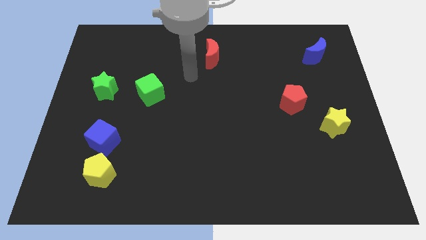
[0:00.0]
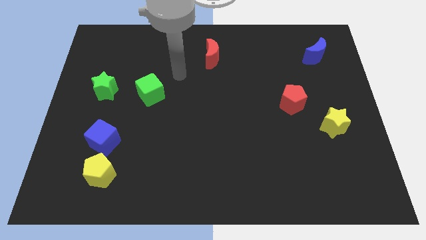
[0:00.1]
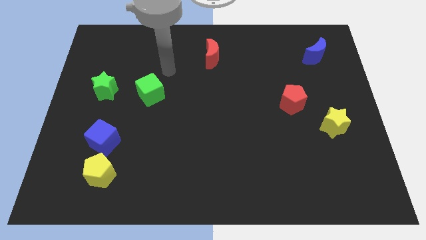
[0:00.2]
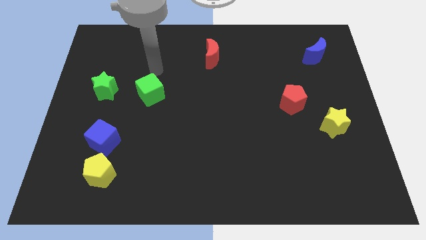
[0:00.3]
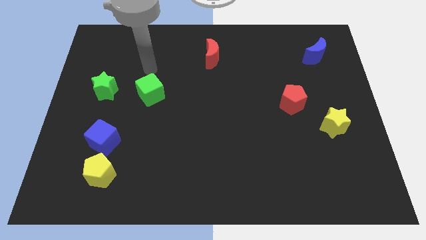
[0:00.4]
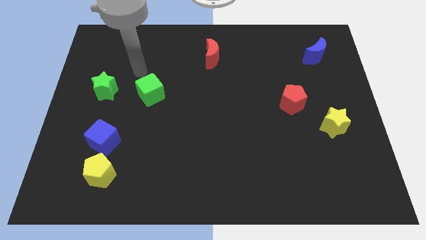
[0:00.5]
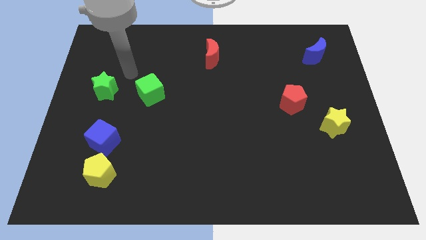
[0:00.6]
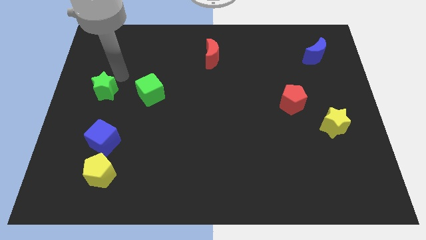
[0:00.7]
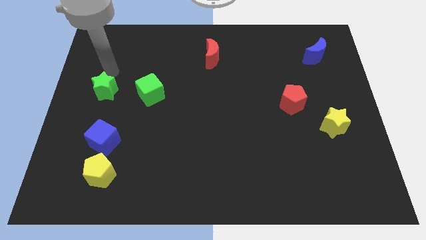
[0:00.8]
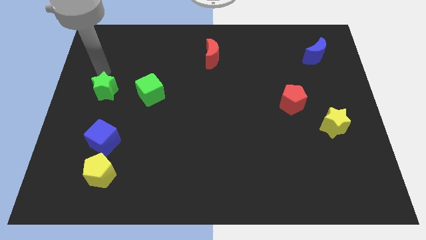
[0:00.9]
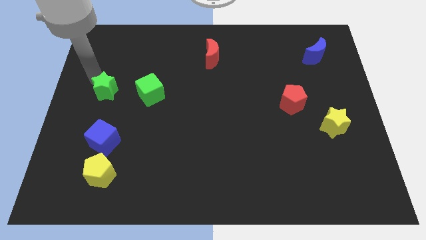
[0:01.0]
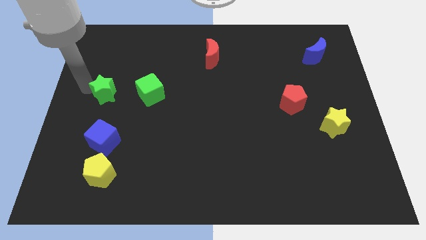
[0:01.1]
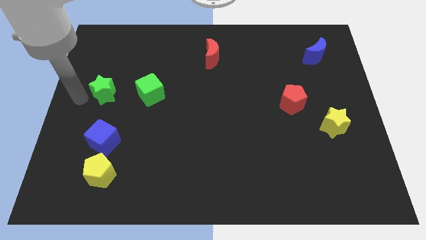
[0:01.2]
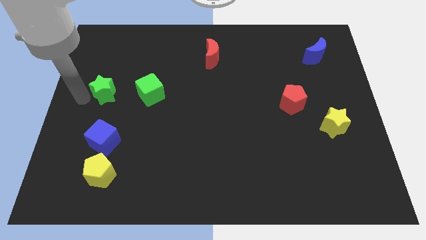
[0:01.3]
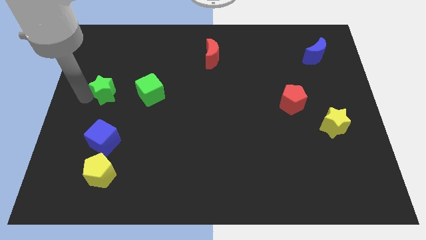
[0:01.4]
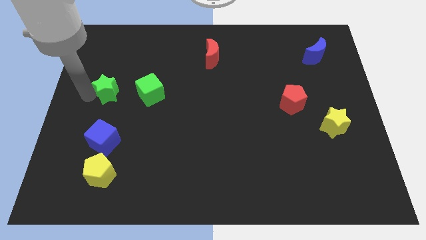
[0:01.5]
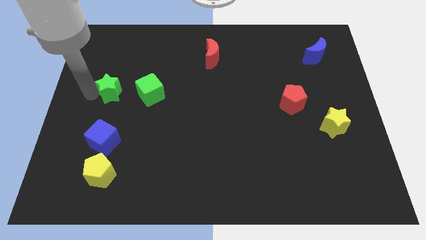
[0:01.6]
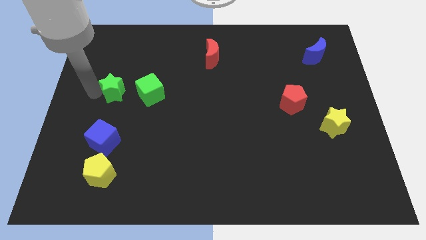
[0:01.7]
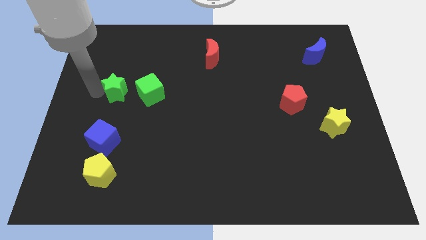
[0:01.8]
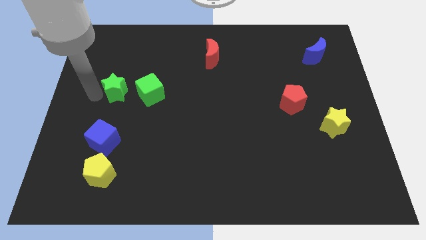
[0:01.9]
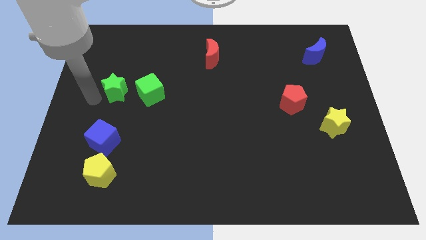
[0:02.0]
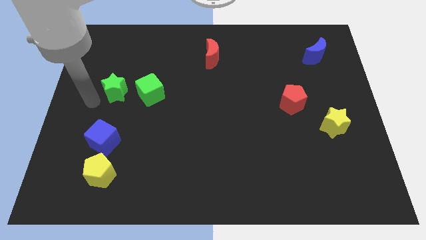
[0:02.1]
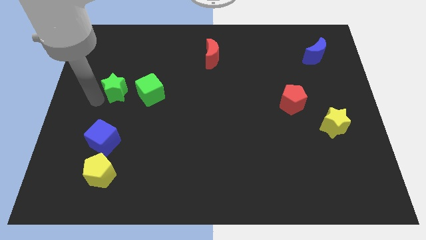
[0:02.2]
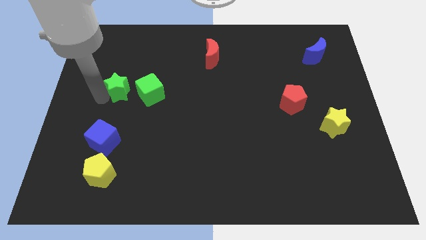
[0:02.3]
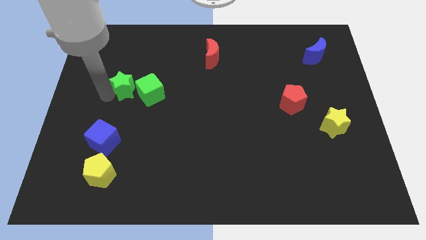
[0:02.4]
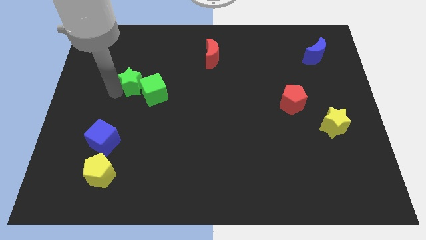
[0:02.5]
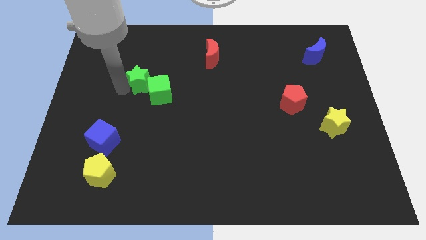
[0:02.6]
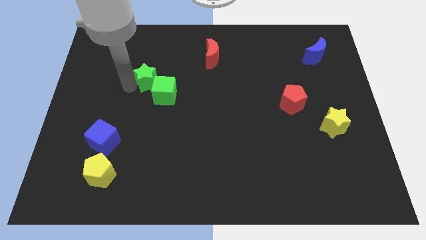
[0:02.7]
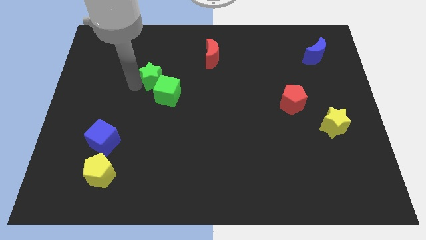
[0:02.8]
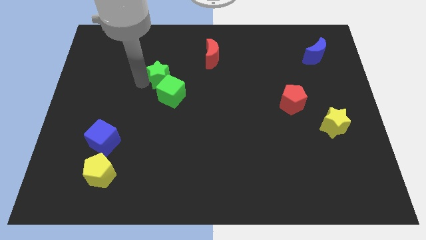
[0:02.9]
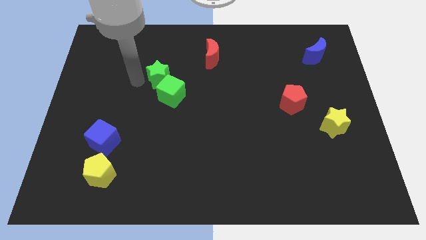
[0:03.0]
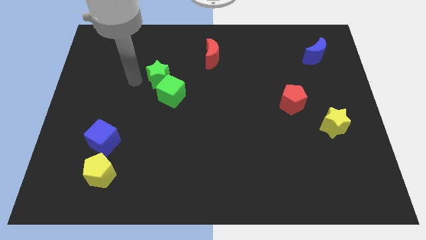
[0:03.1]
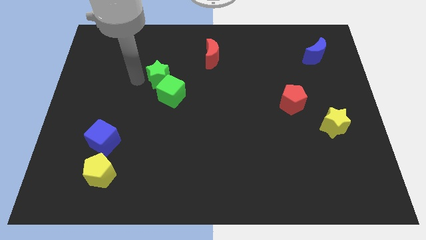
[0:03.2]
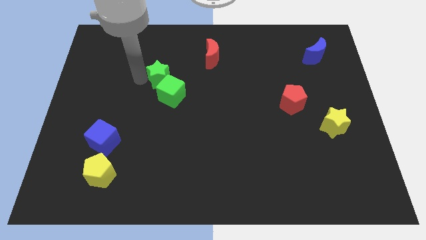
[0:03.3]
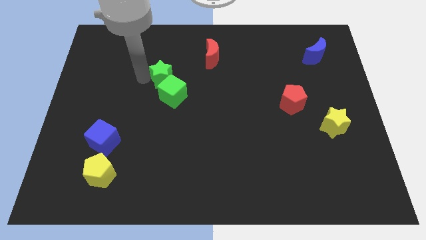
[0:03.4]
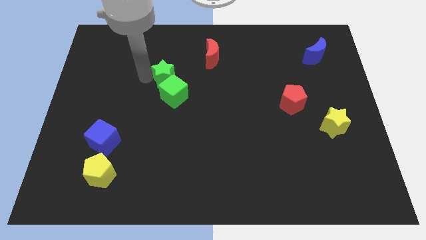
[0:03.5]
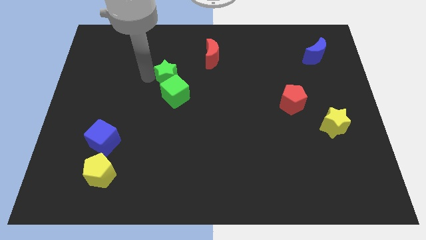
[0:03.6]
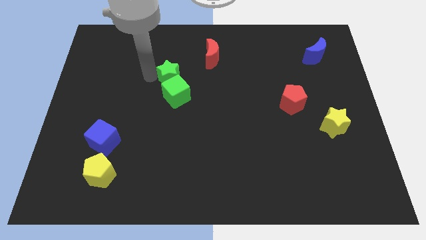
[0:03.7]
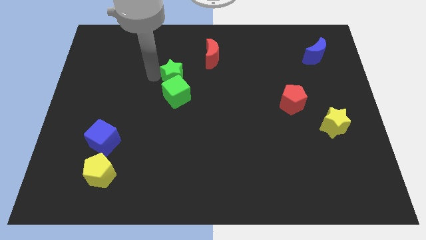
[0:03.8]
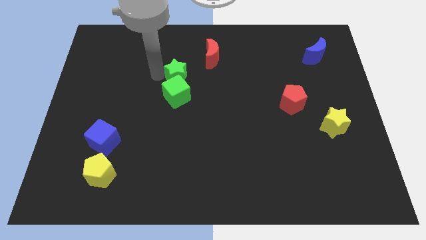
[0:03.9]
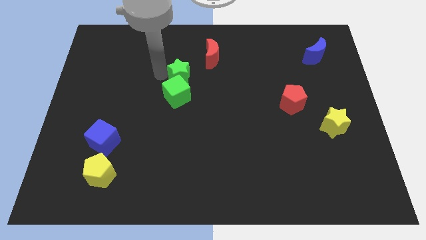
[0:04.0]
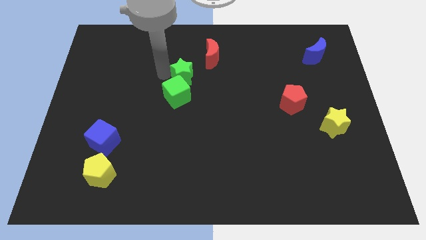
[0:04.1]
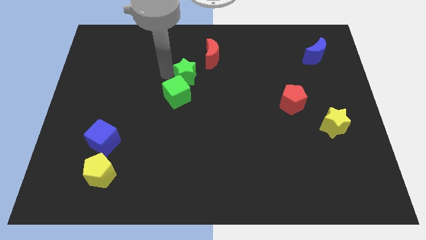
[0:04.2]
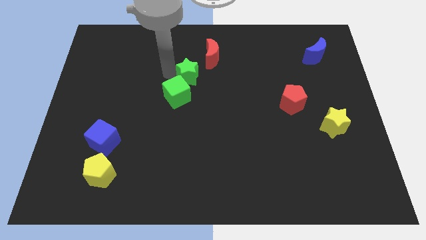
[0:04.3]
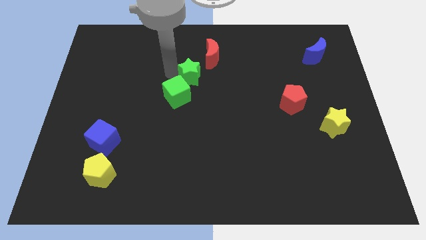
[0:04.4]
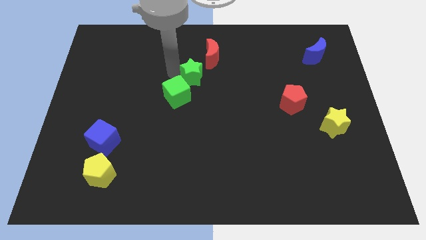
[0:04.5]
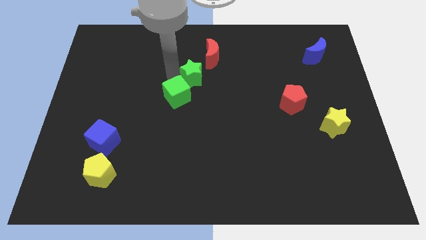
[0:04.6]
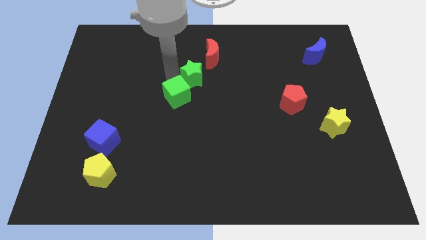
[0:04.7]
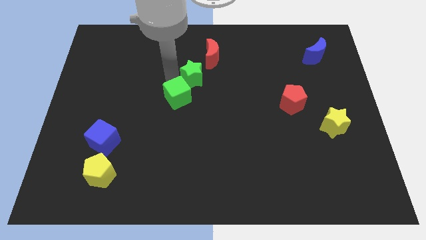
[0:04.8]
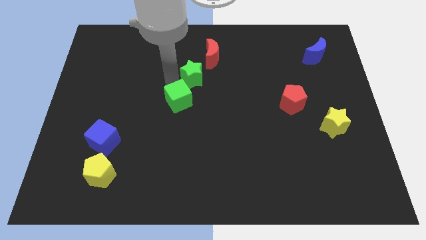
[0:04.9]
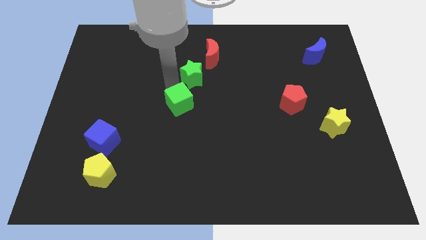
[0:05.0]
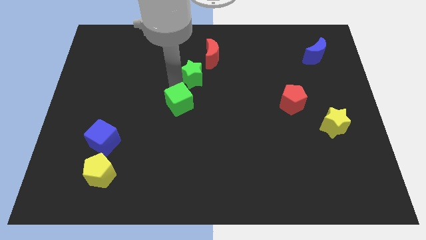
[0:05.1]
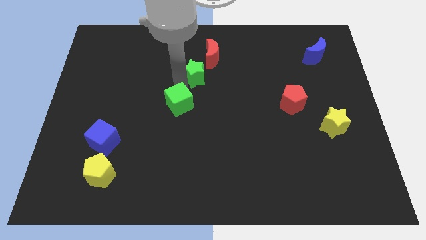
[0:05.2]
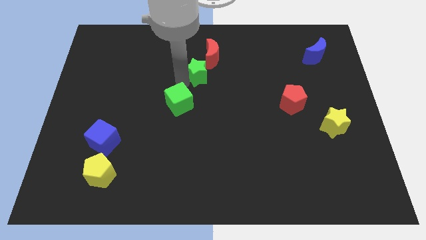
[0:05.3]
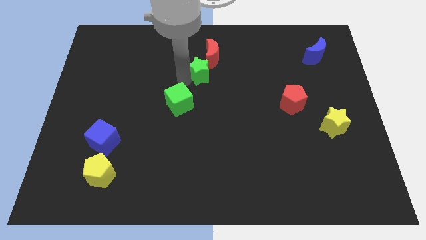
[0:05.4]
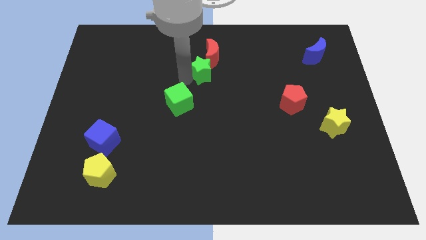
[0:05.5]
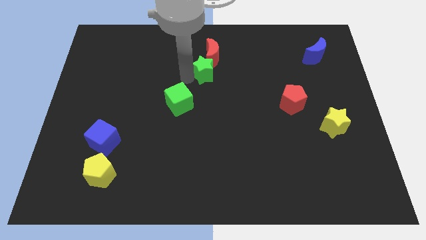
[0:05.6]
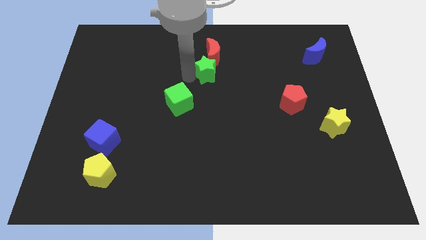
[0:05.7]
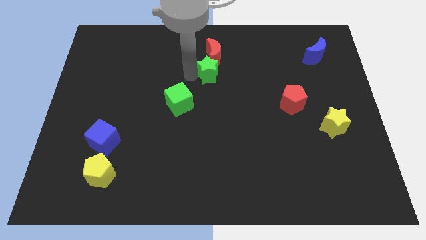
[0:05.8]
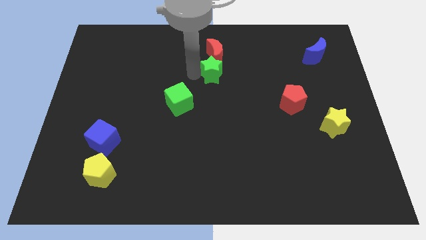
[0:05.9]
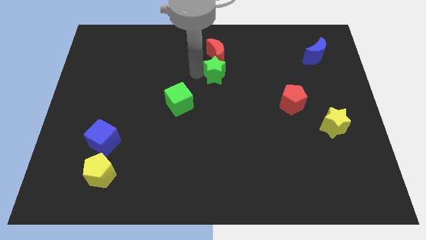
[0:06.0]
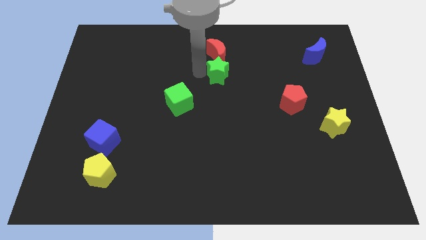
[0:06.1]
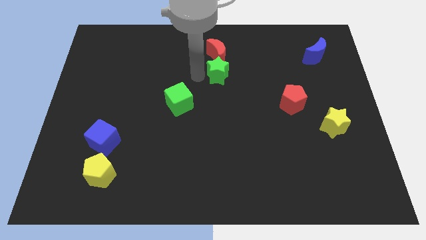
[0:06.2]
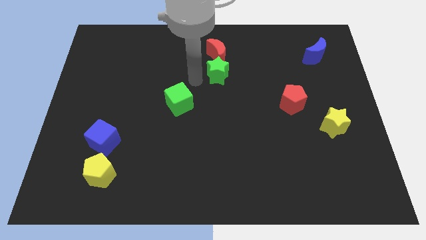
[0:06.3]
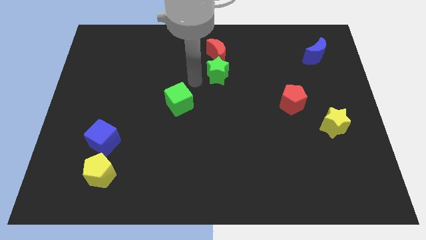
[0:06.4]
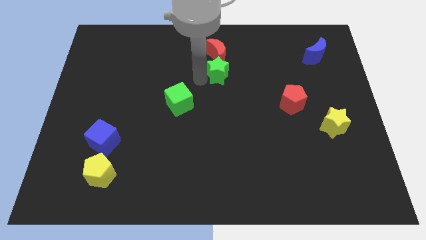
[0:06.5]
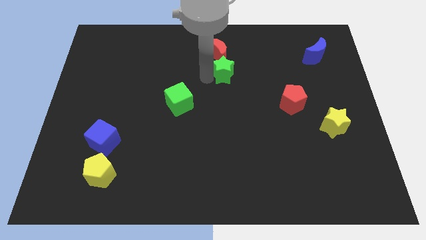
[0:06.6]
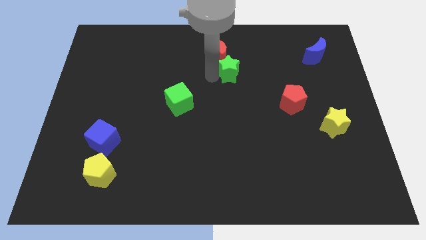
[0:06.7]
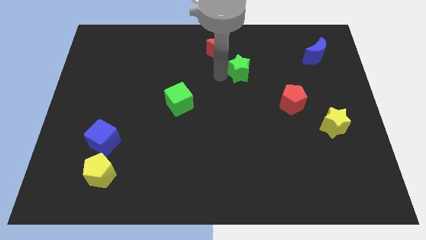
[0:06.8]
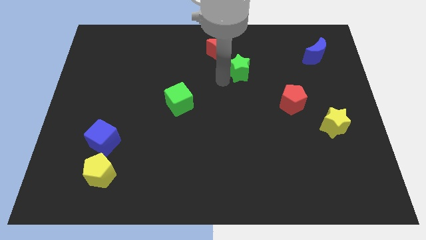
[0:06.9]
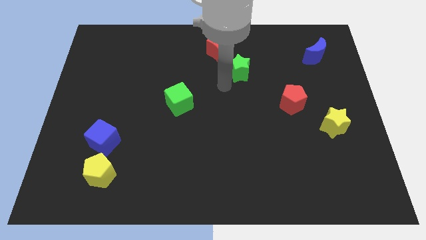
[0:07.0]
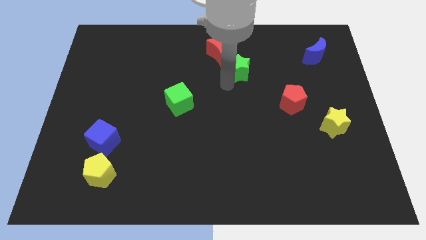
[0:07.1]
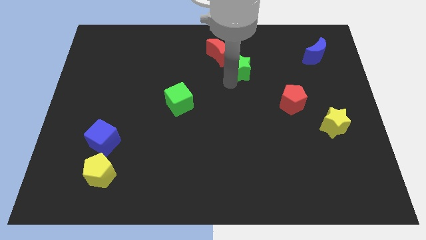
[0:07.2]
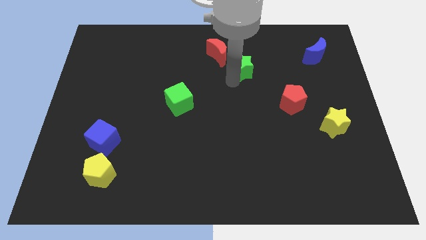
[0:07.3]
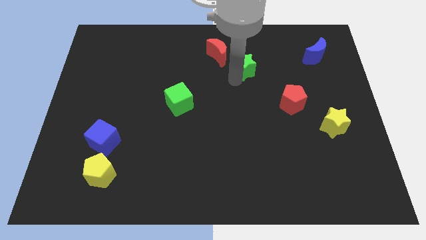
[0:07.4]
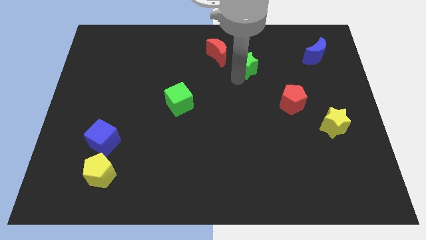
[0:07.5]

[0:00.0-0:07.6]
push the green star to the right side of the red moon
